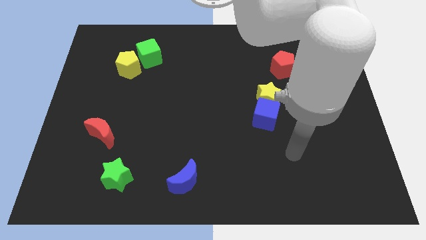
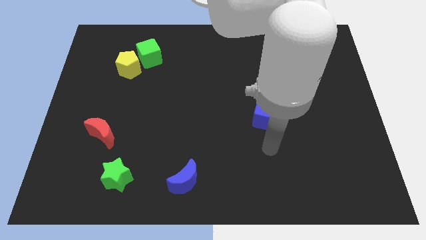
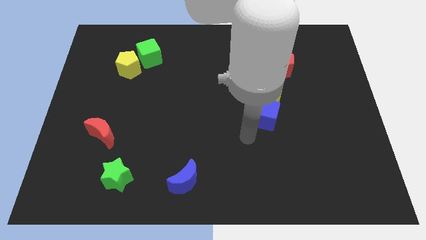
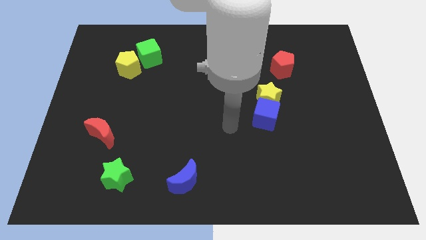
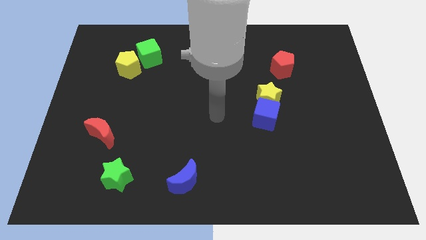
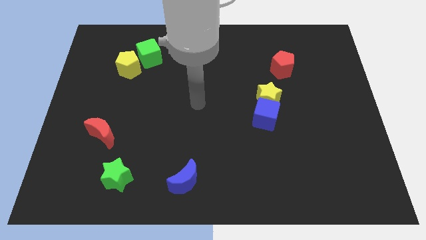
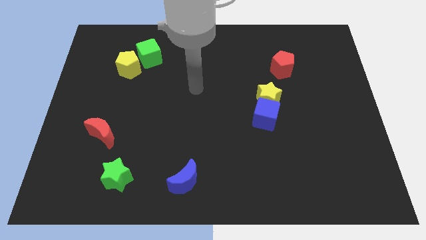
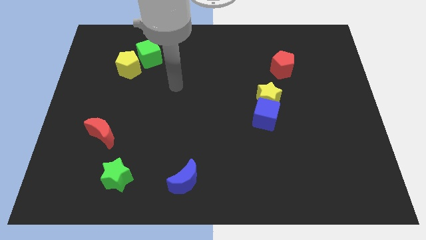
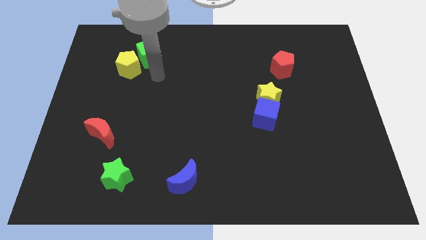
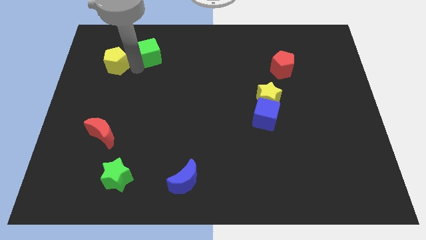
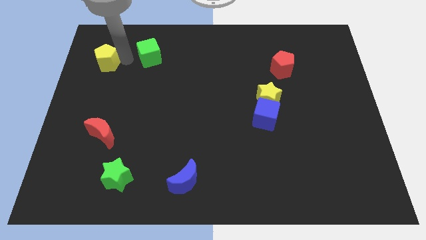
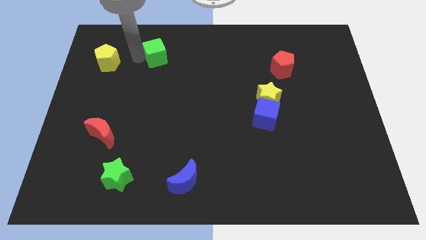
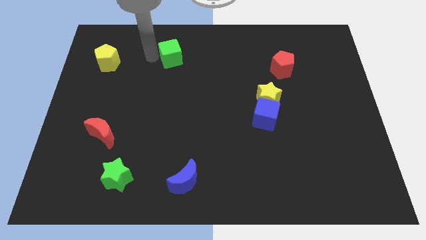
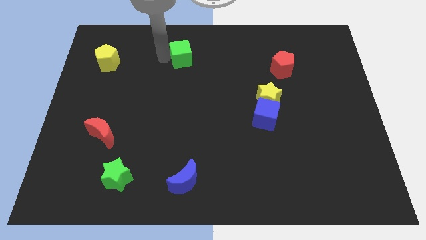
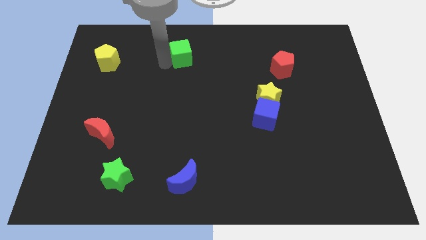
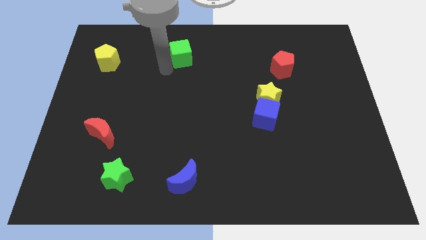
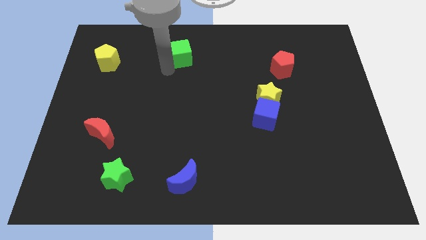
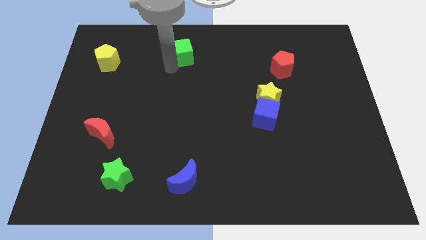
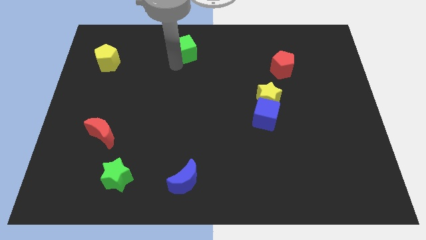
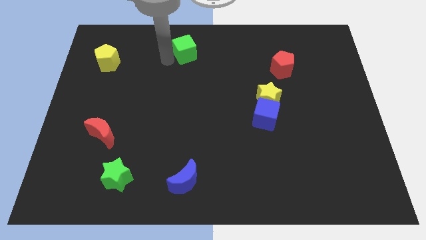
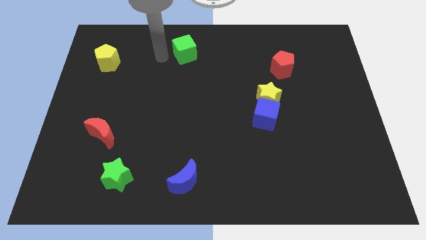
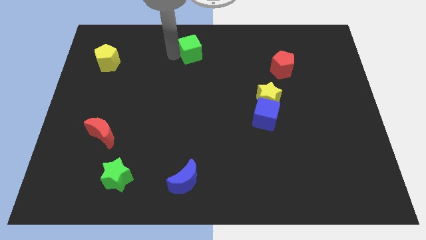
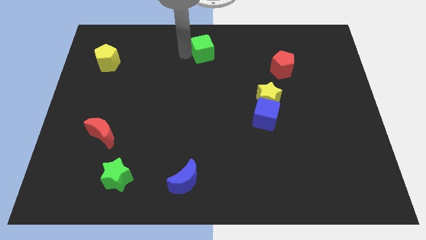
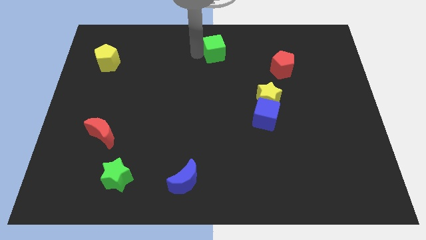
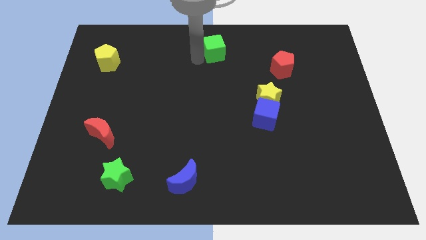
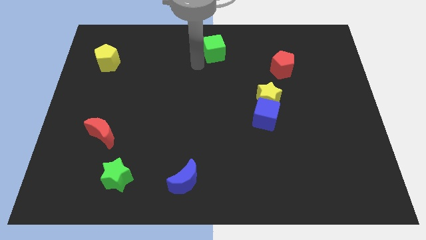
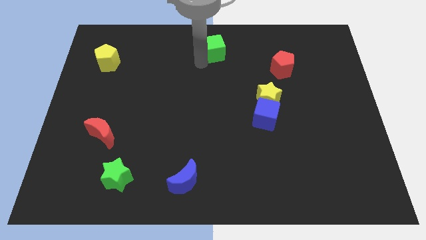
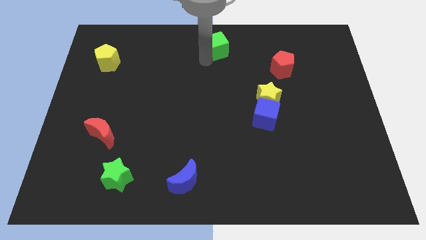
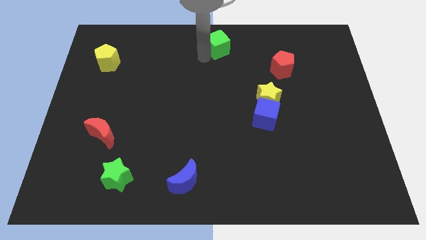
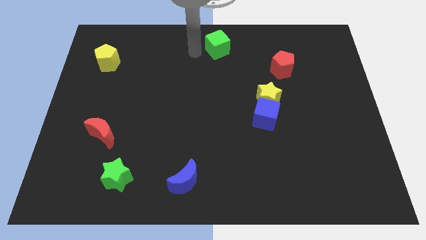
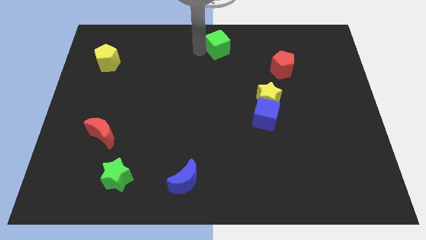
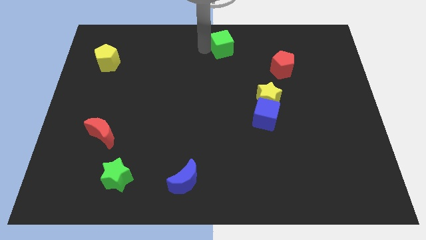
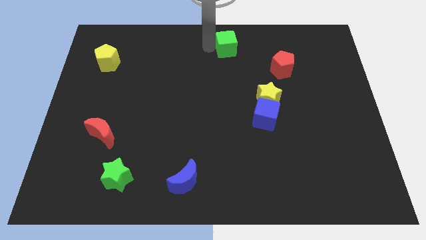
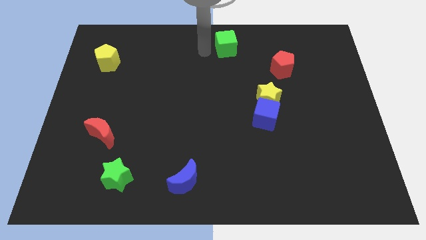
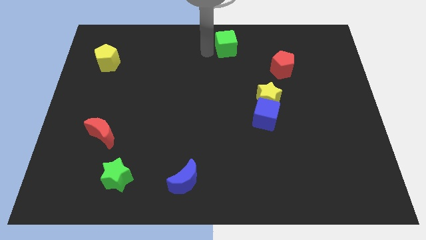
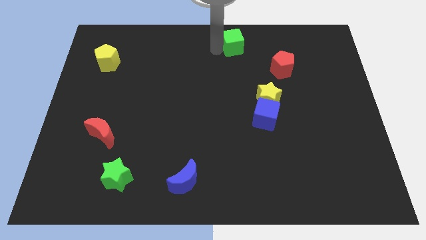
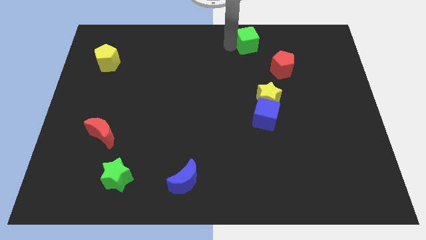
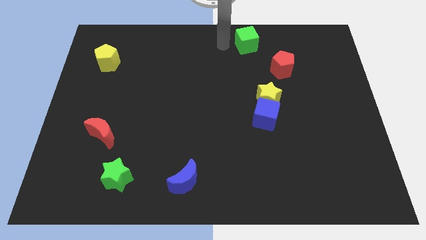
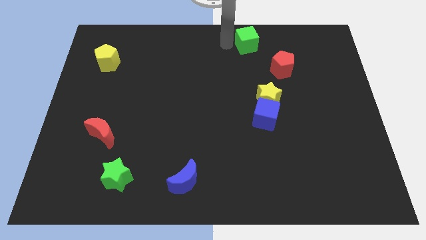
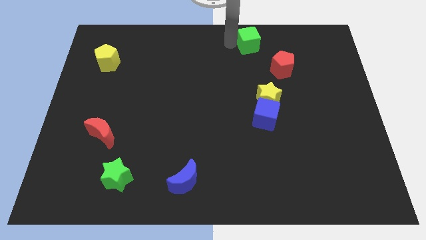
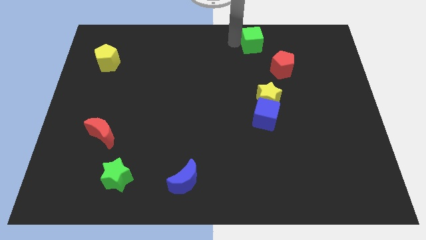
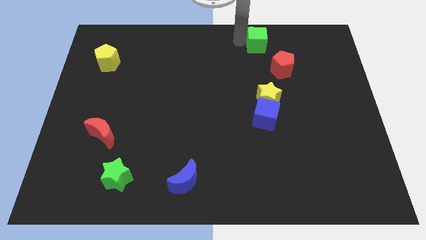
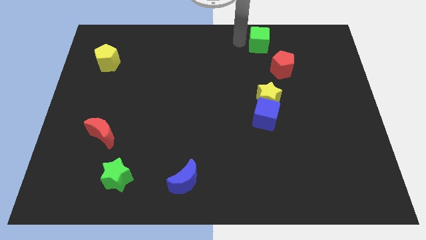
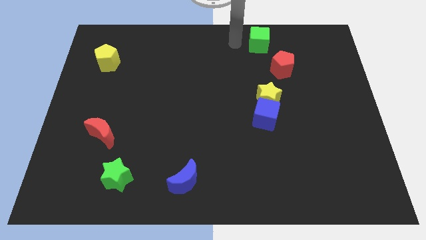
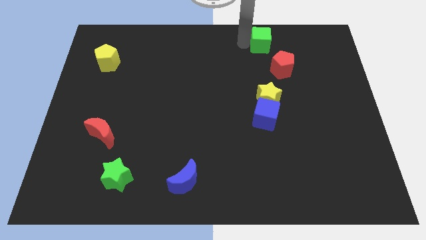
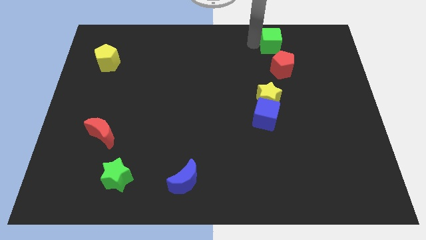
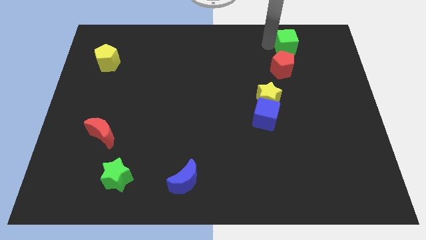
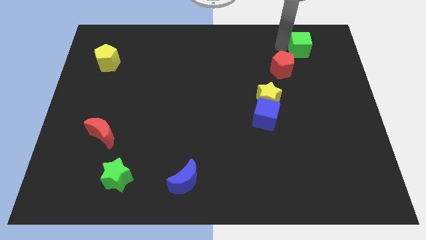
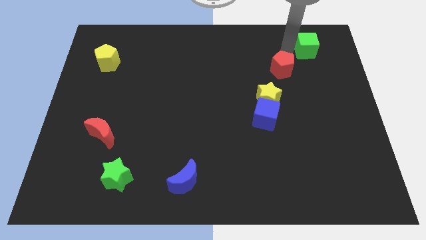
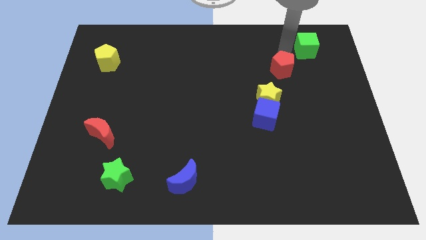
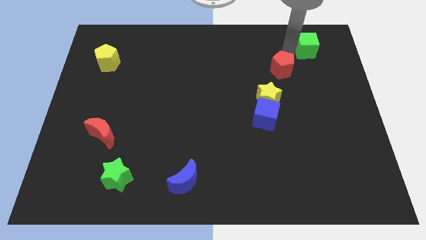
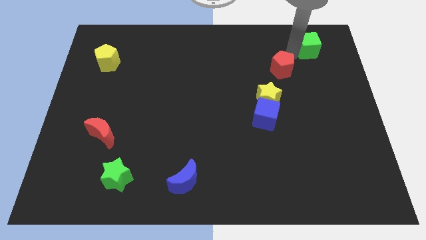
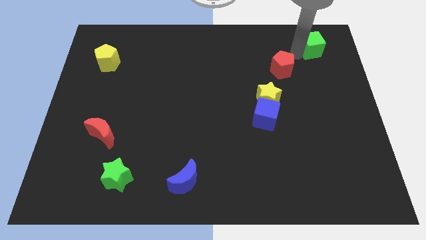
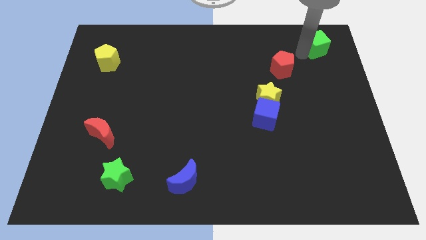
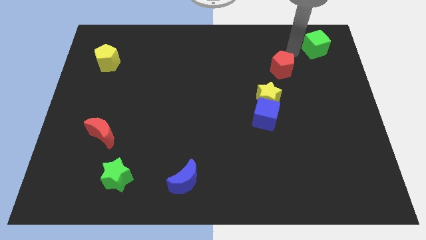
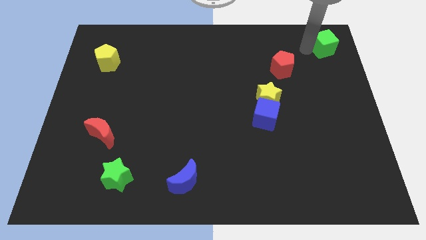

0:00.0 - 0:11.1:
move the green cube to the top right
